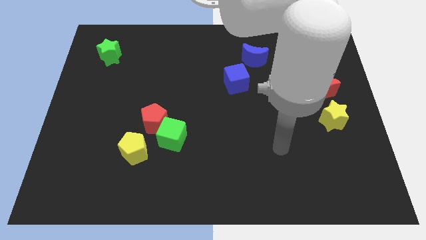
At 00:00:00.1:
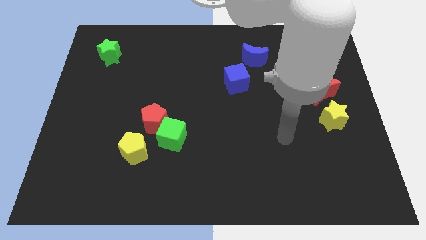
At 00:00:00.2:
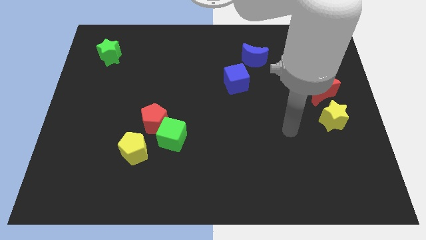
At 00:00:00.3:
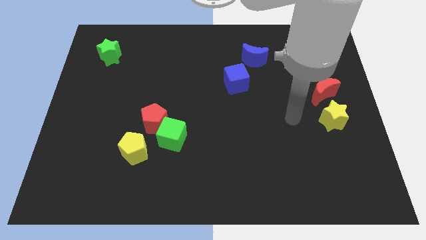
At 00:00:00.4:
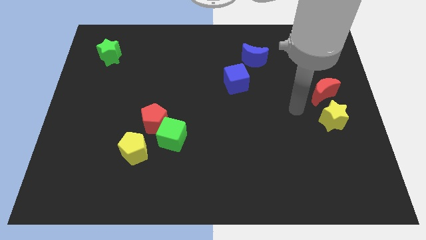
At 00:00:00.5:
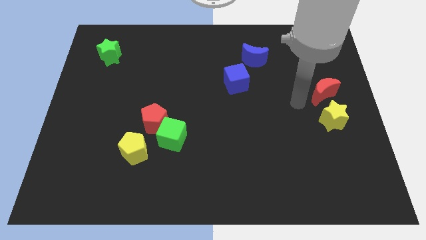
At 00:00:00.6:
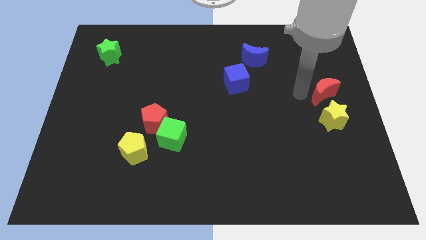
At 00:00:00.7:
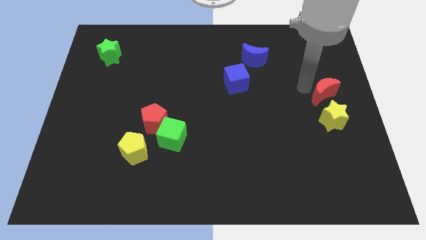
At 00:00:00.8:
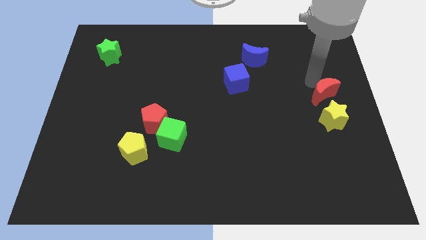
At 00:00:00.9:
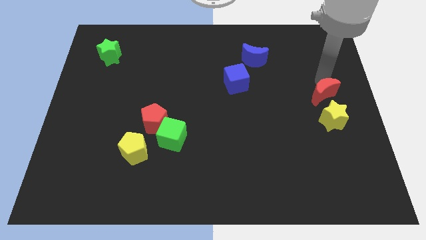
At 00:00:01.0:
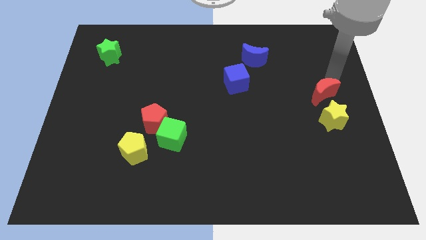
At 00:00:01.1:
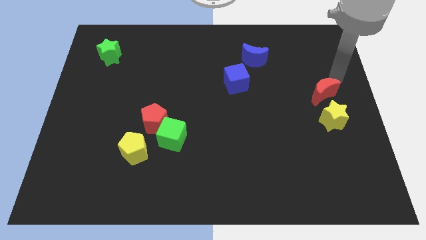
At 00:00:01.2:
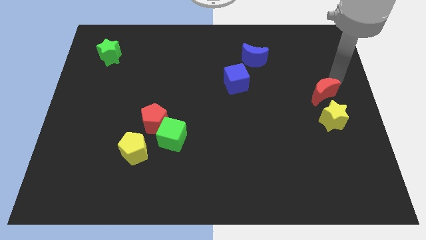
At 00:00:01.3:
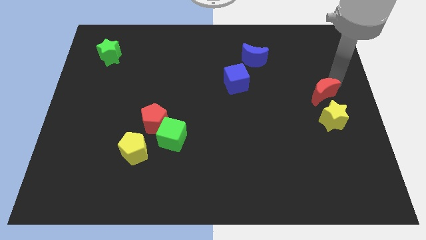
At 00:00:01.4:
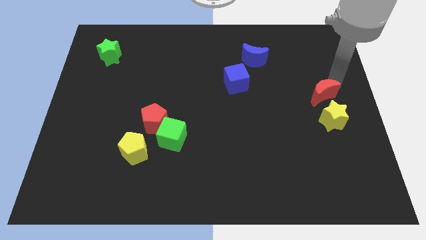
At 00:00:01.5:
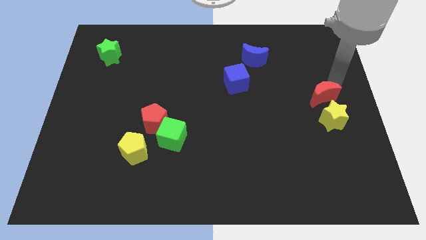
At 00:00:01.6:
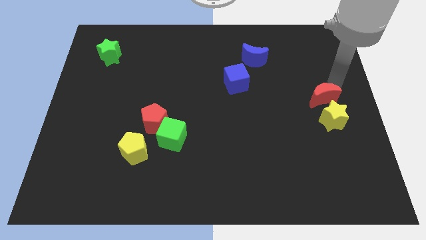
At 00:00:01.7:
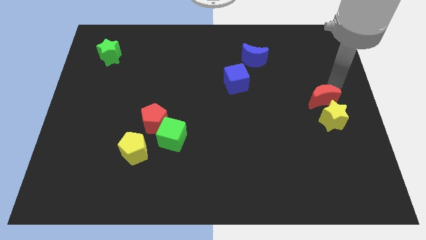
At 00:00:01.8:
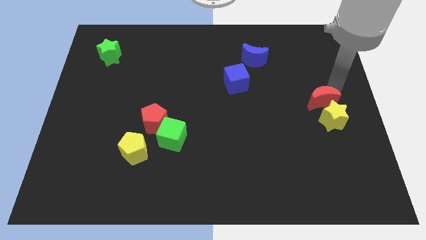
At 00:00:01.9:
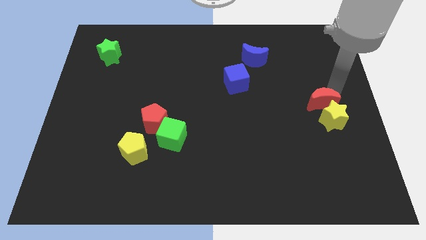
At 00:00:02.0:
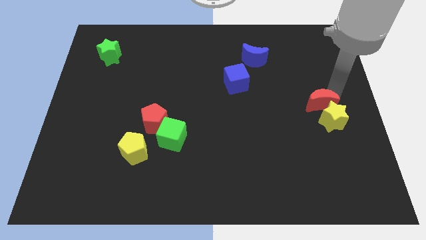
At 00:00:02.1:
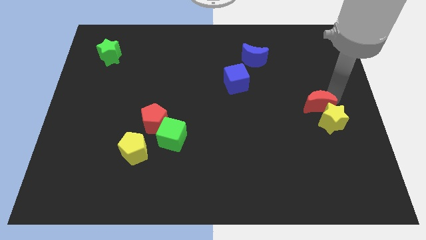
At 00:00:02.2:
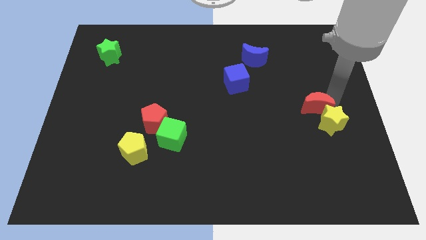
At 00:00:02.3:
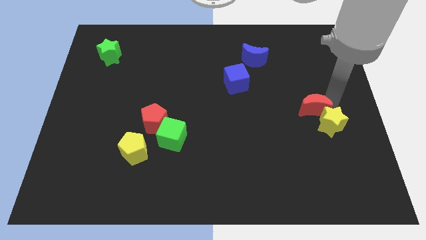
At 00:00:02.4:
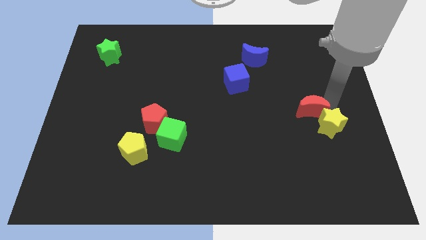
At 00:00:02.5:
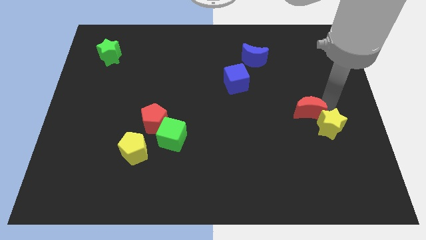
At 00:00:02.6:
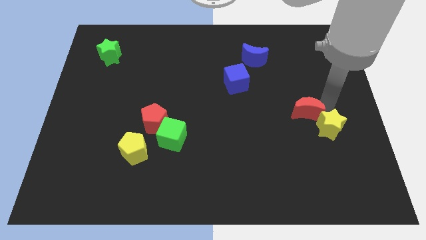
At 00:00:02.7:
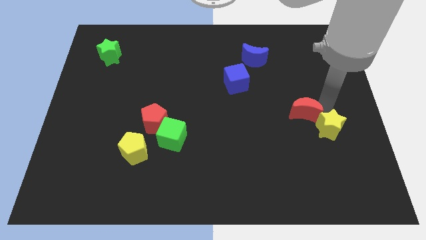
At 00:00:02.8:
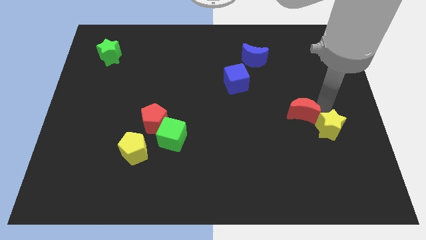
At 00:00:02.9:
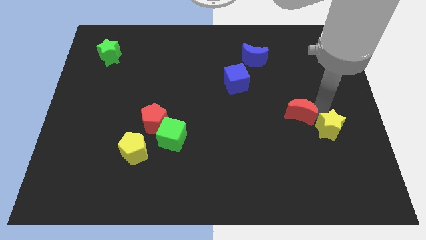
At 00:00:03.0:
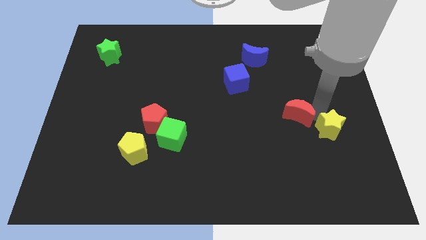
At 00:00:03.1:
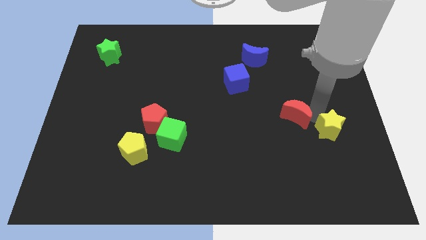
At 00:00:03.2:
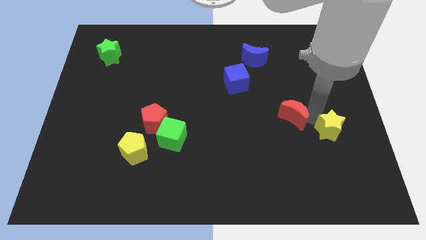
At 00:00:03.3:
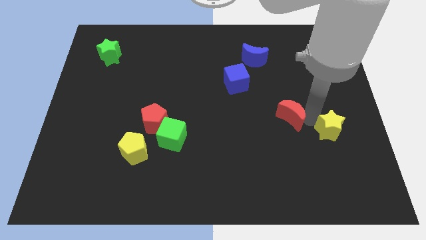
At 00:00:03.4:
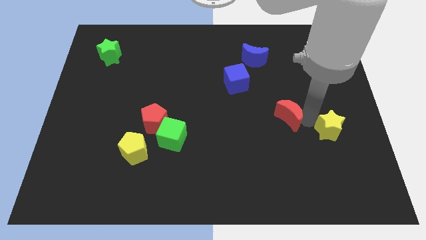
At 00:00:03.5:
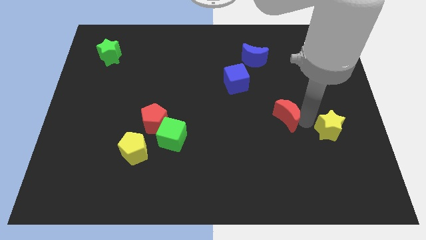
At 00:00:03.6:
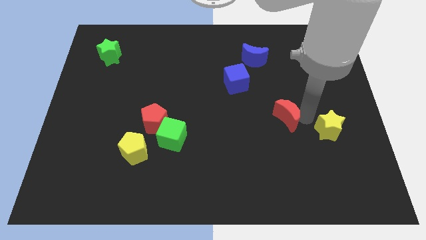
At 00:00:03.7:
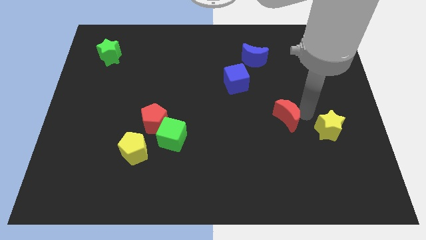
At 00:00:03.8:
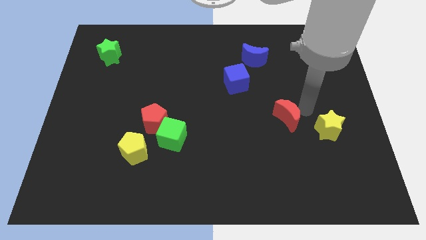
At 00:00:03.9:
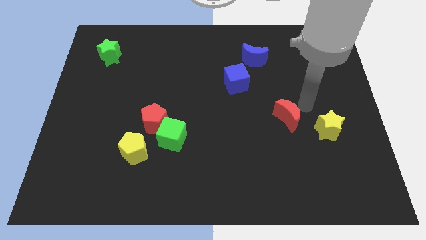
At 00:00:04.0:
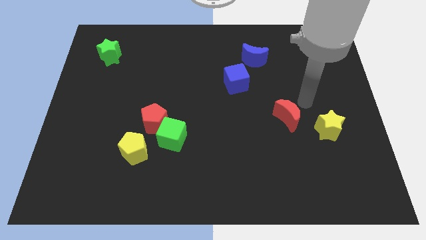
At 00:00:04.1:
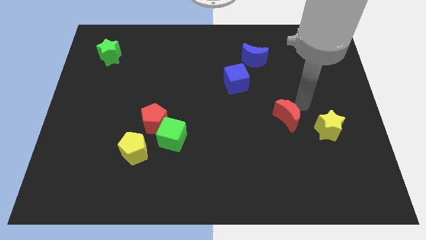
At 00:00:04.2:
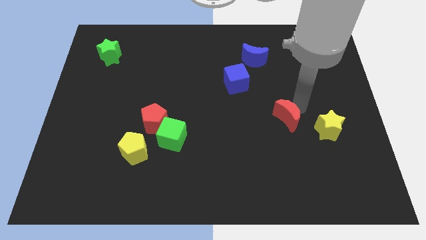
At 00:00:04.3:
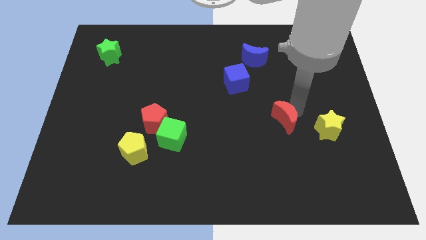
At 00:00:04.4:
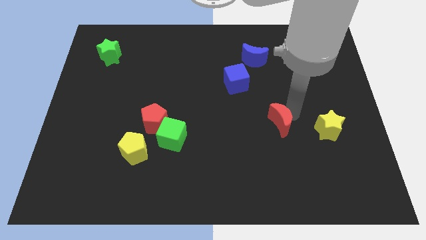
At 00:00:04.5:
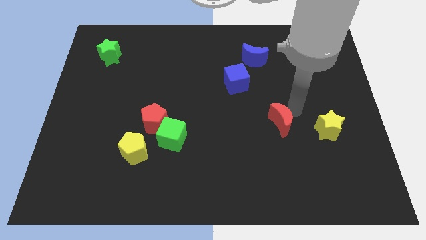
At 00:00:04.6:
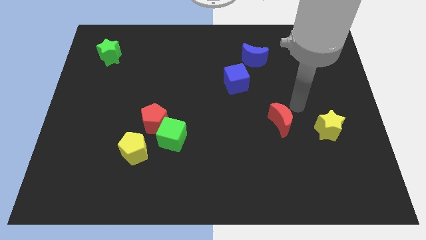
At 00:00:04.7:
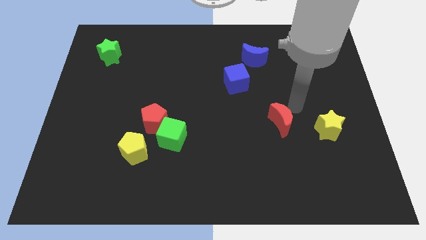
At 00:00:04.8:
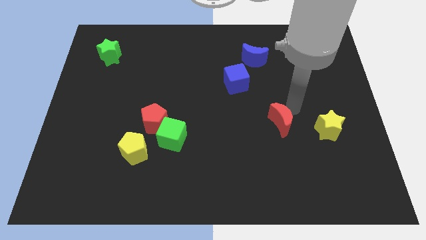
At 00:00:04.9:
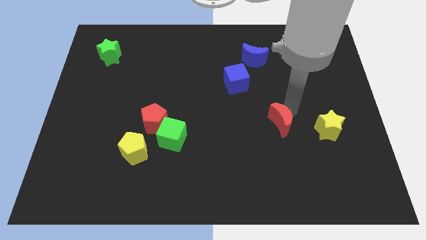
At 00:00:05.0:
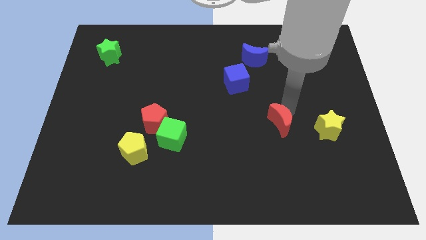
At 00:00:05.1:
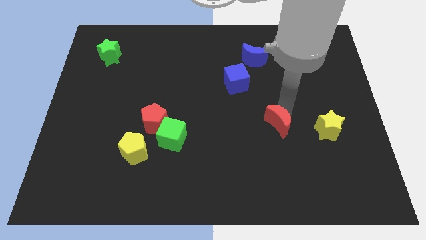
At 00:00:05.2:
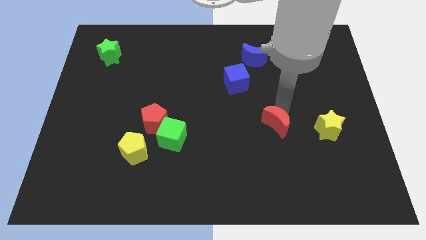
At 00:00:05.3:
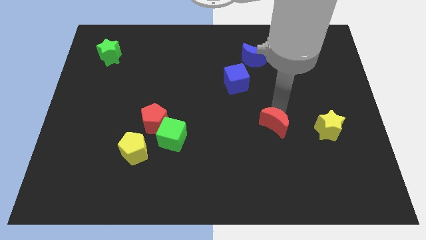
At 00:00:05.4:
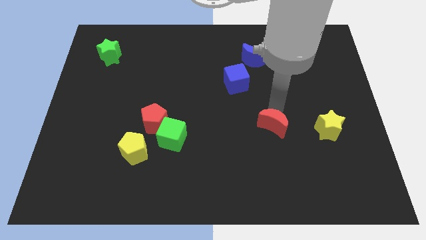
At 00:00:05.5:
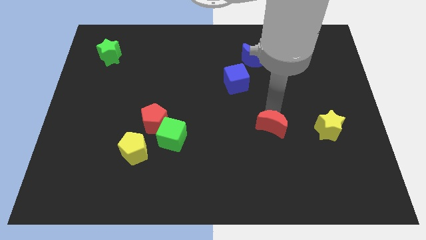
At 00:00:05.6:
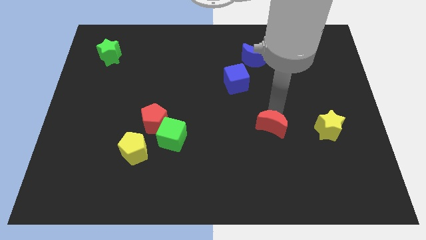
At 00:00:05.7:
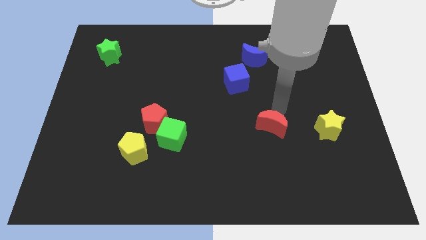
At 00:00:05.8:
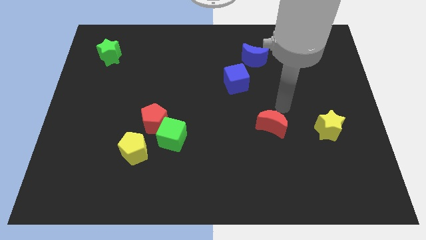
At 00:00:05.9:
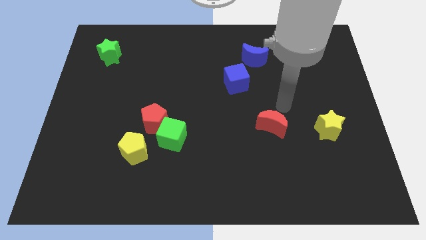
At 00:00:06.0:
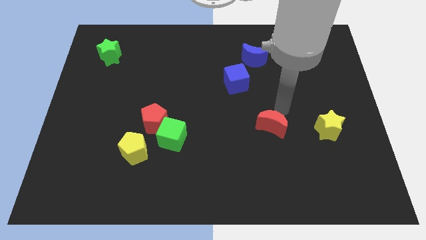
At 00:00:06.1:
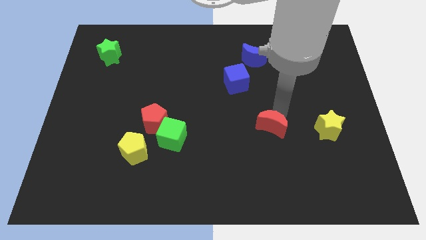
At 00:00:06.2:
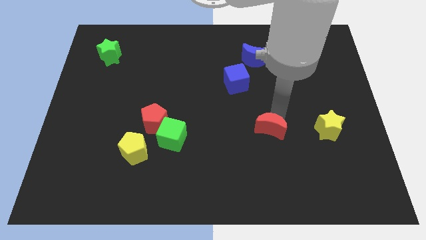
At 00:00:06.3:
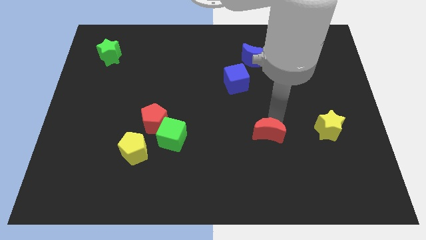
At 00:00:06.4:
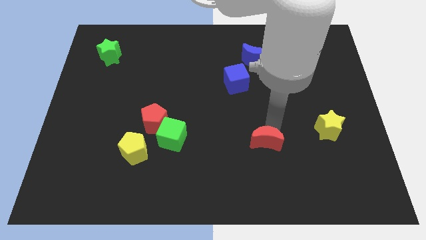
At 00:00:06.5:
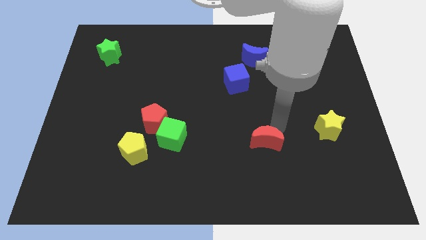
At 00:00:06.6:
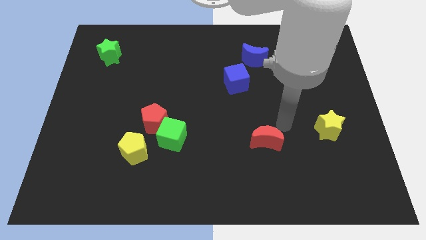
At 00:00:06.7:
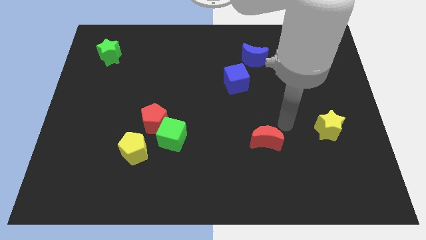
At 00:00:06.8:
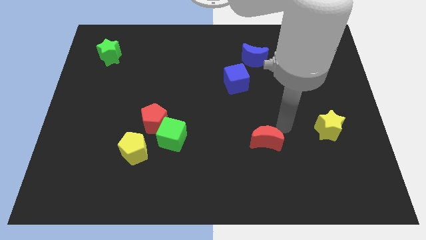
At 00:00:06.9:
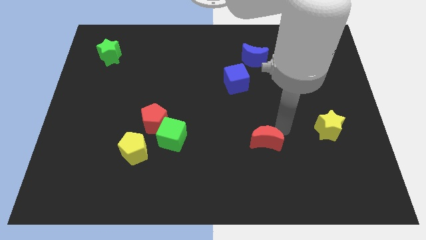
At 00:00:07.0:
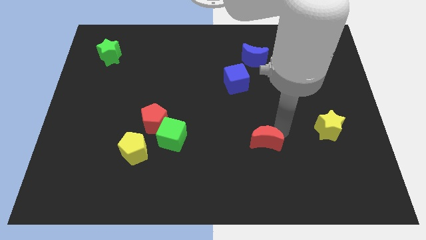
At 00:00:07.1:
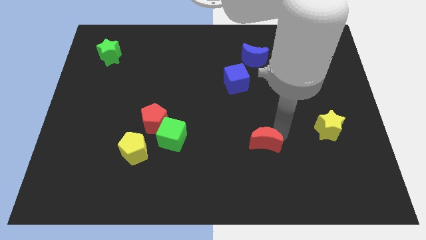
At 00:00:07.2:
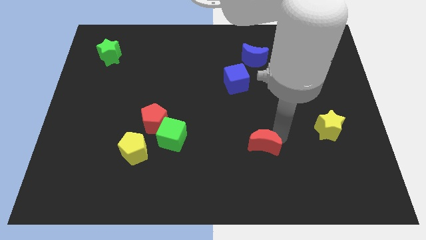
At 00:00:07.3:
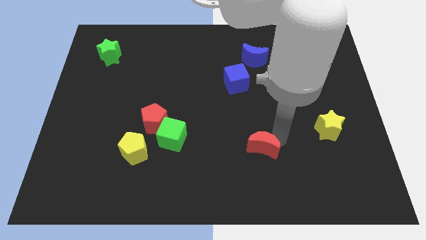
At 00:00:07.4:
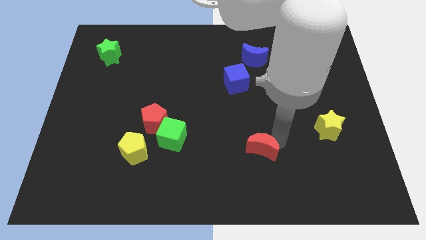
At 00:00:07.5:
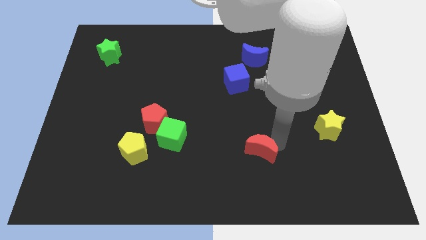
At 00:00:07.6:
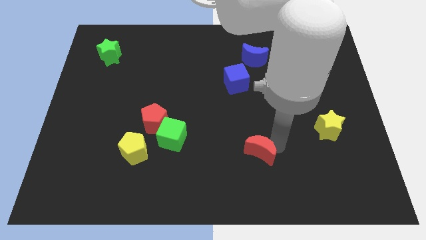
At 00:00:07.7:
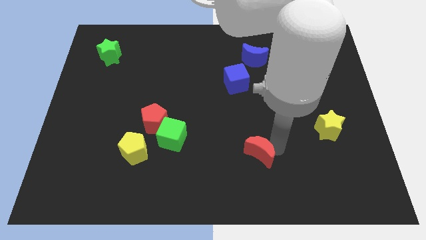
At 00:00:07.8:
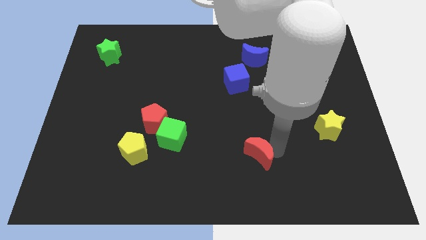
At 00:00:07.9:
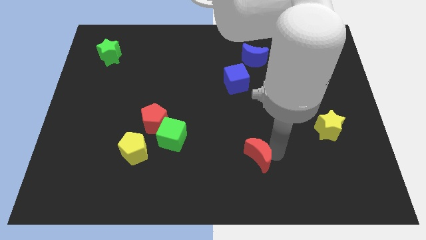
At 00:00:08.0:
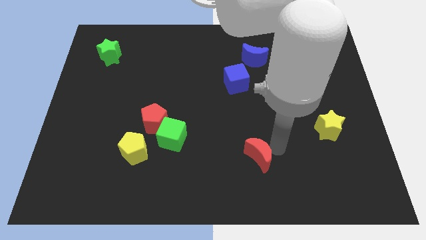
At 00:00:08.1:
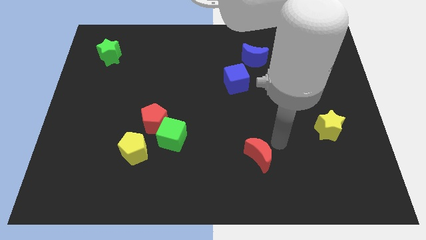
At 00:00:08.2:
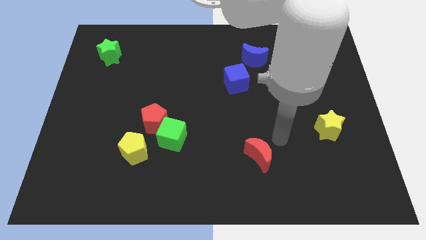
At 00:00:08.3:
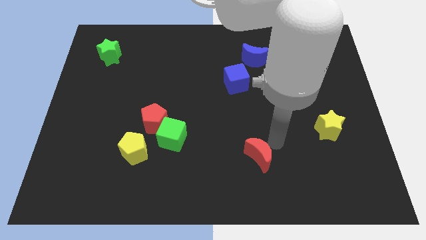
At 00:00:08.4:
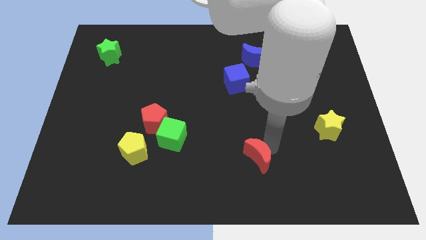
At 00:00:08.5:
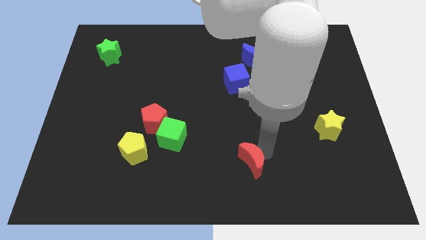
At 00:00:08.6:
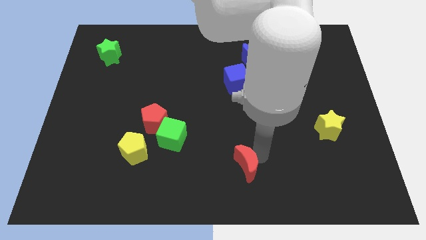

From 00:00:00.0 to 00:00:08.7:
push the red moon to the bottom
